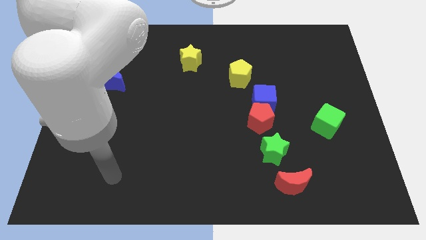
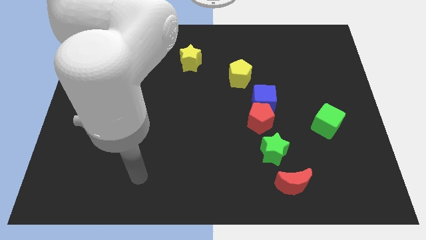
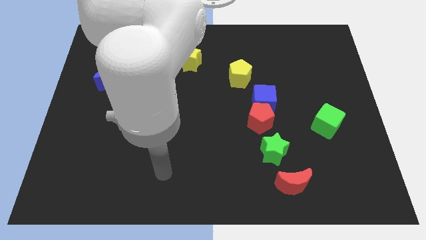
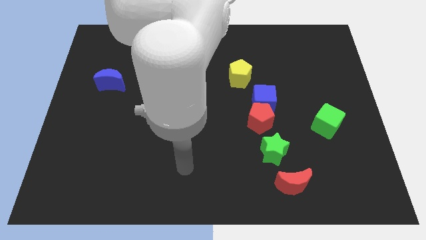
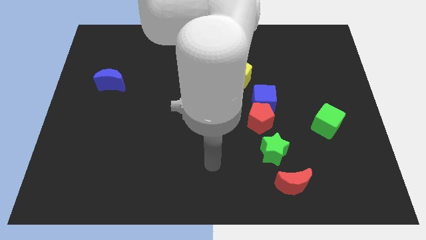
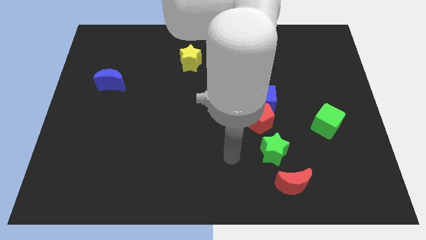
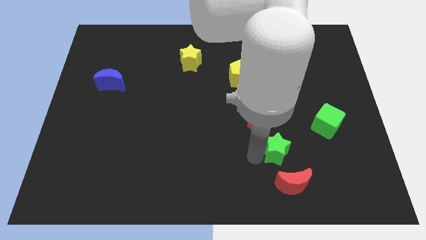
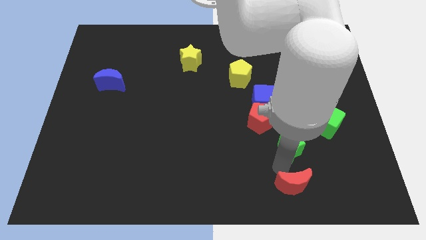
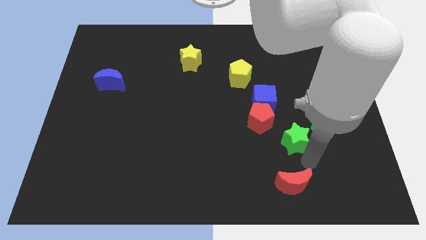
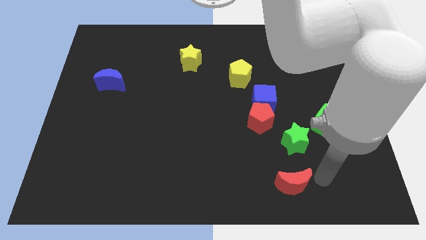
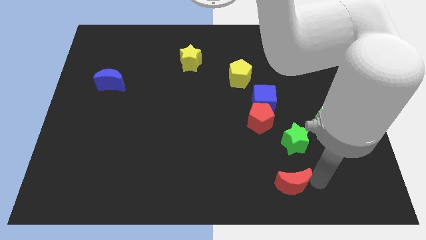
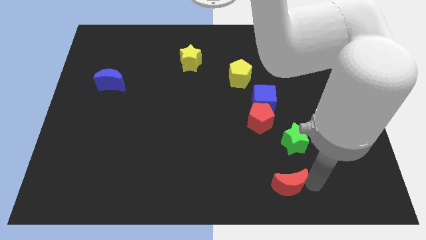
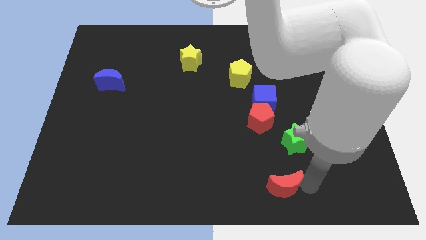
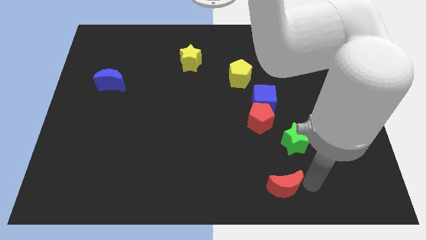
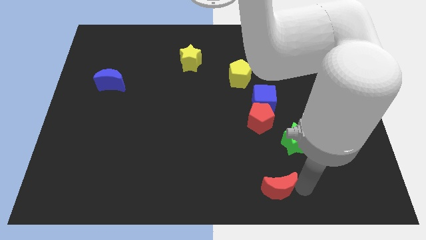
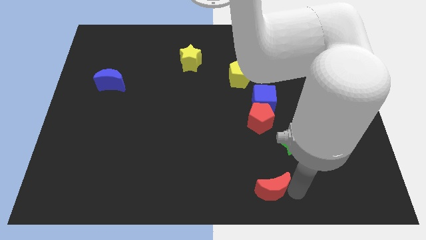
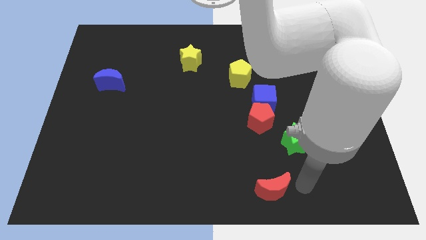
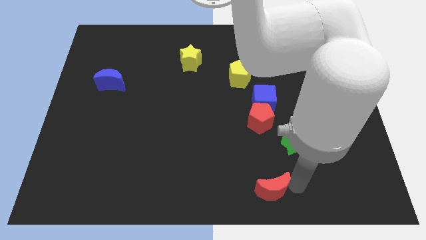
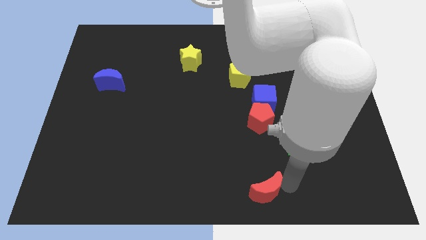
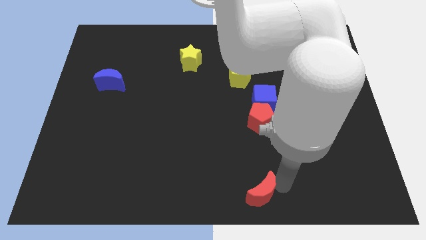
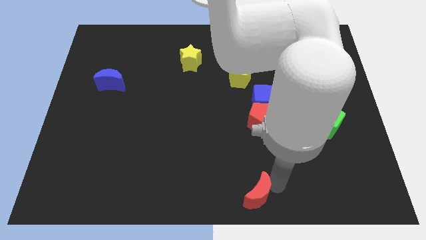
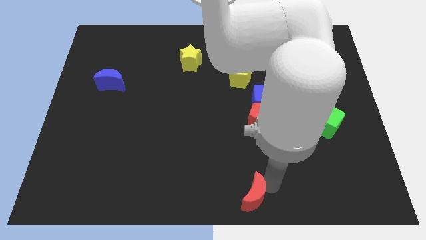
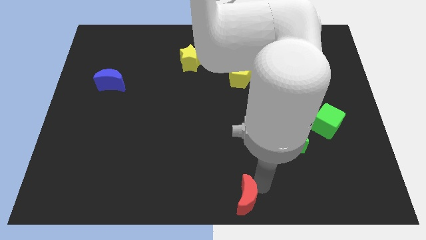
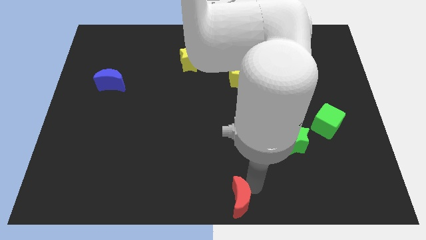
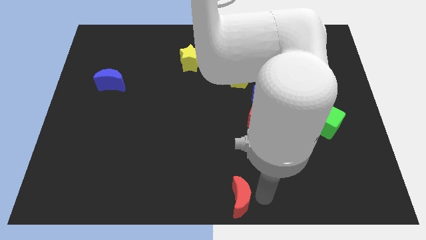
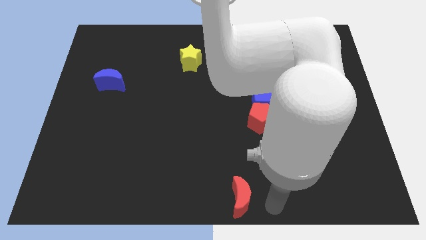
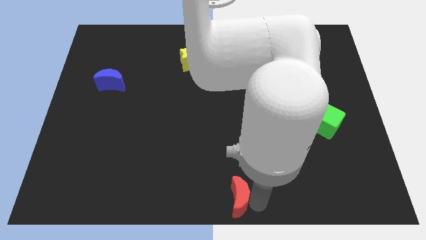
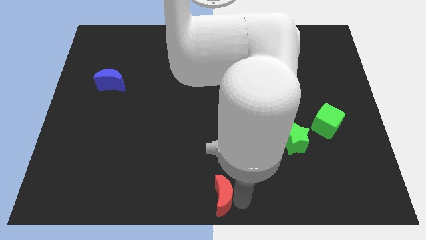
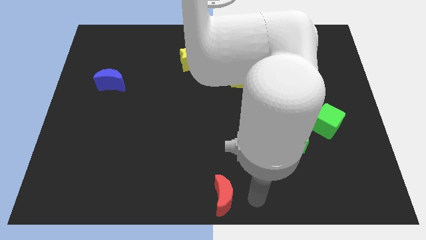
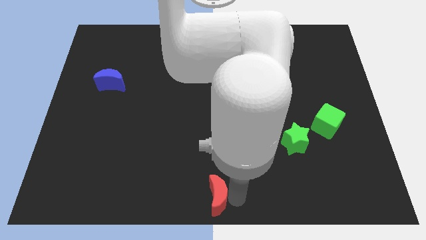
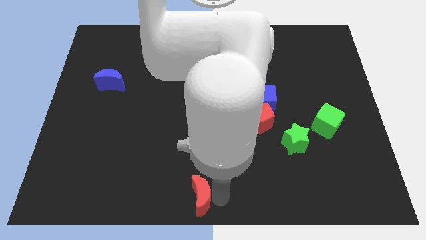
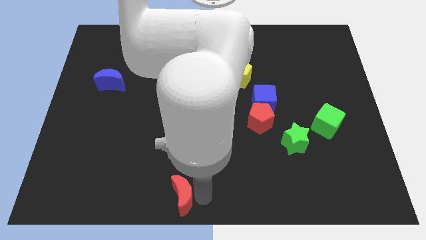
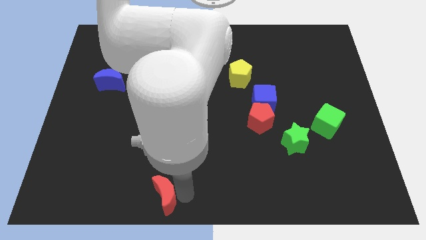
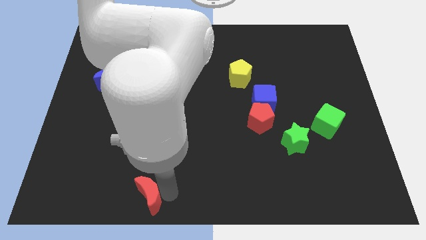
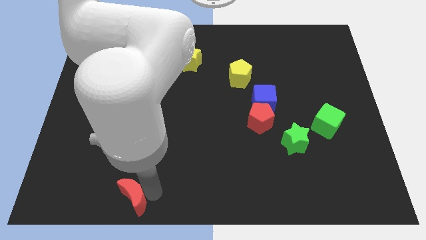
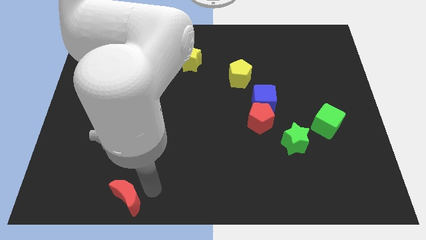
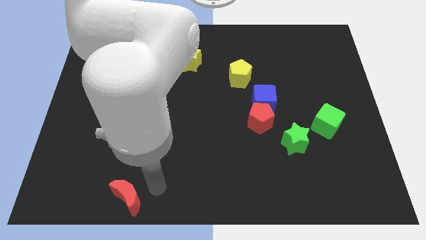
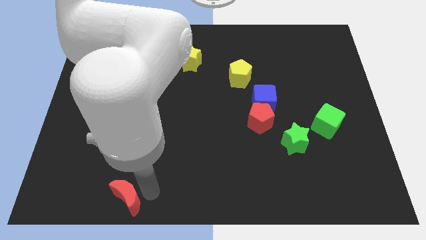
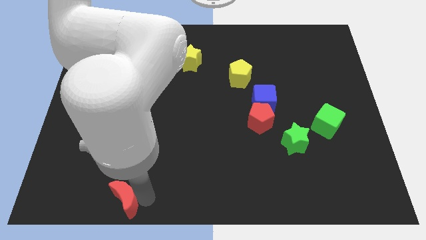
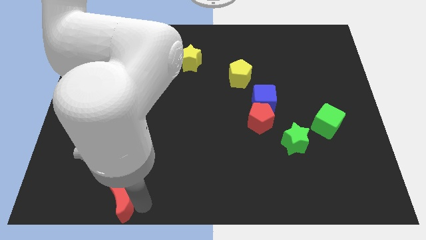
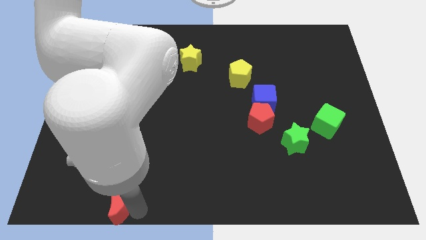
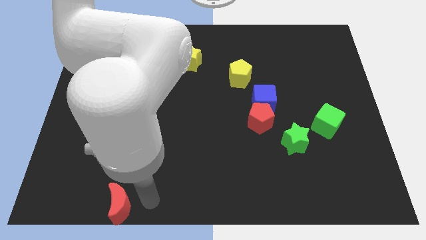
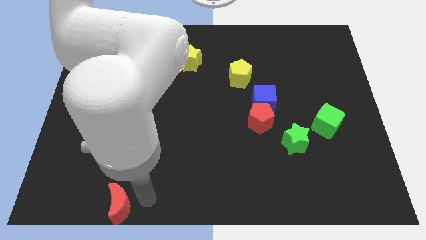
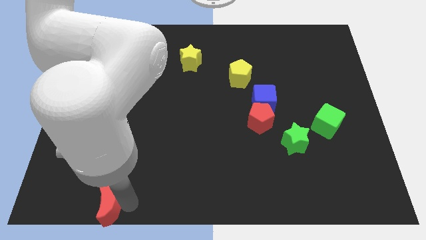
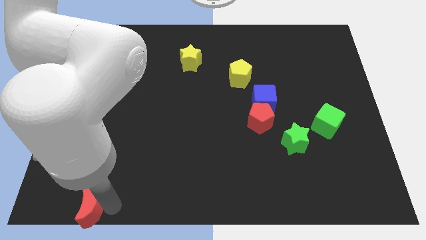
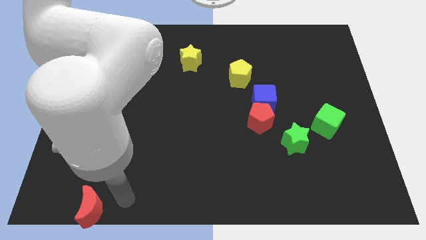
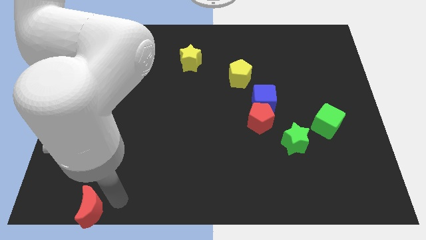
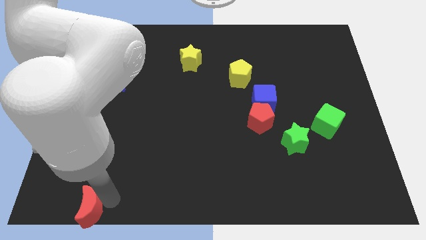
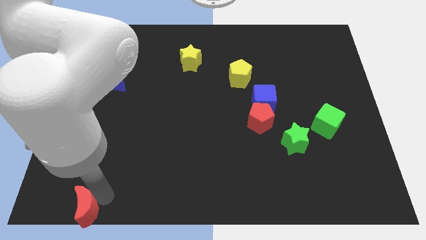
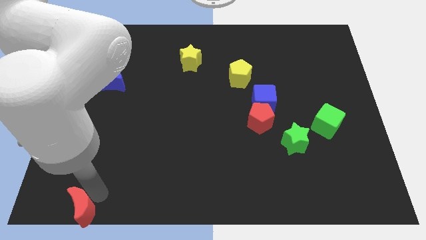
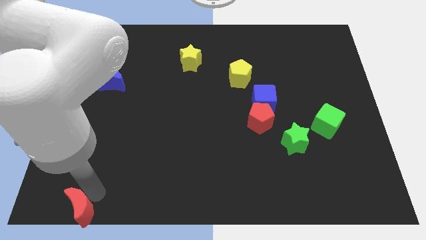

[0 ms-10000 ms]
put the red moon to the lower left corner

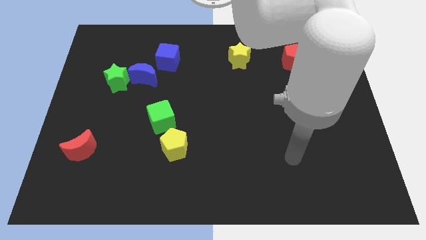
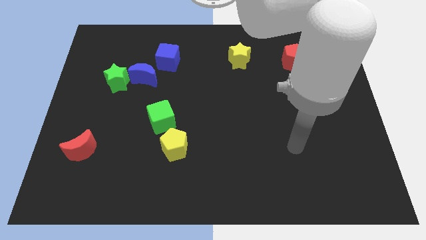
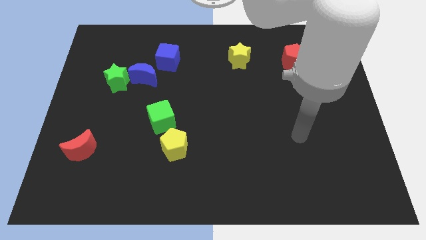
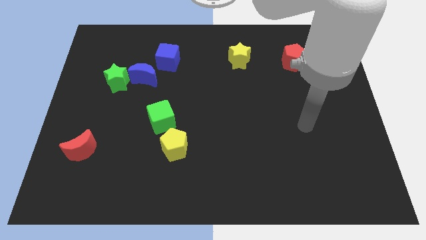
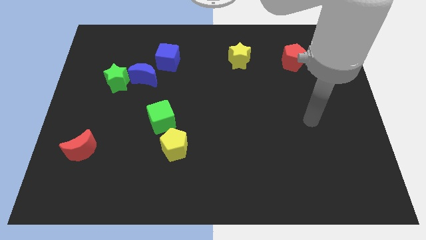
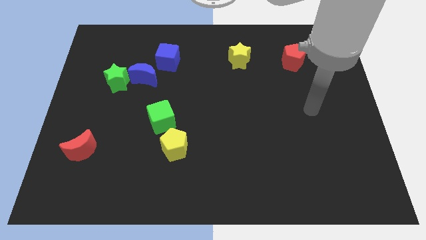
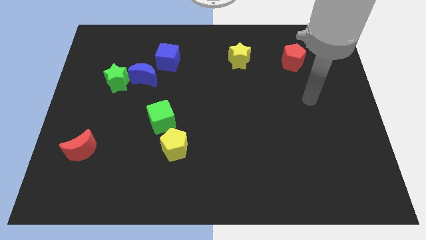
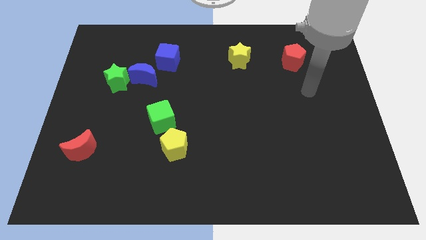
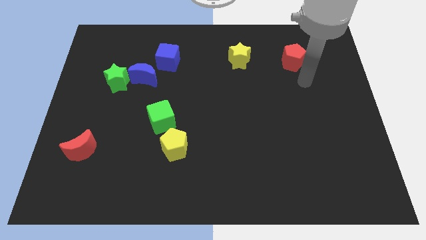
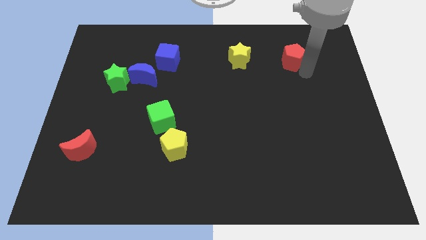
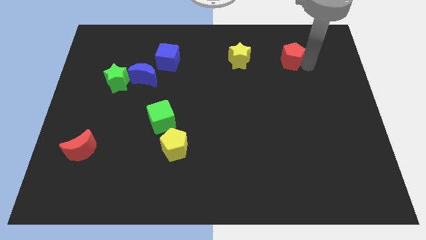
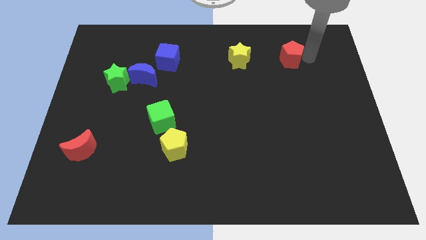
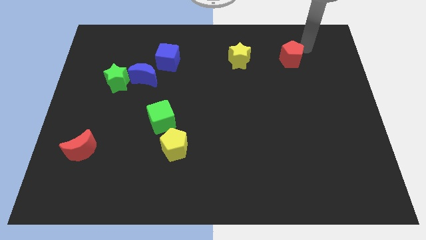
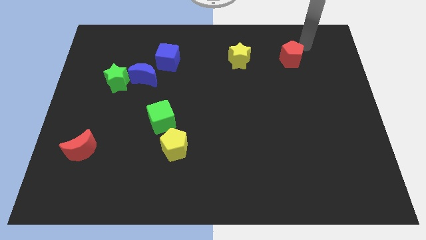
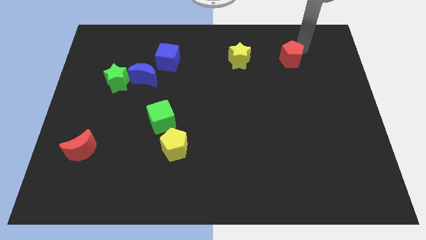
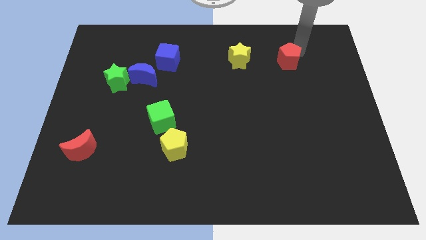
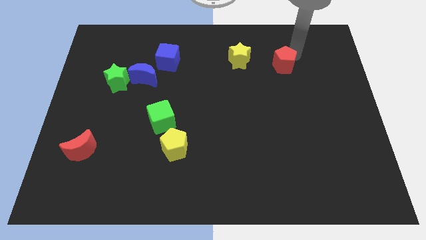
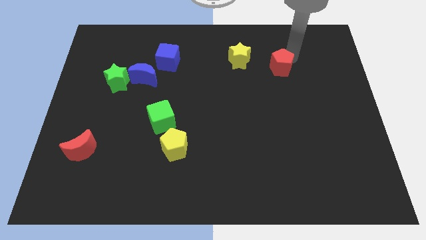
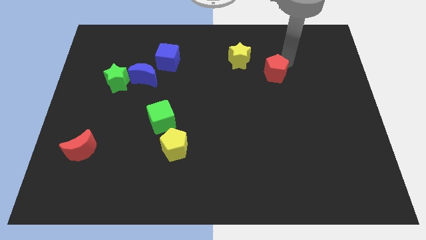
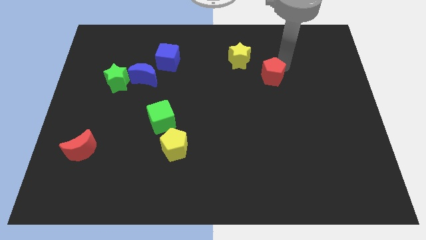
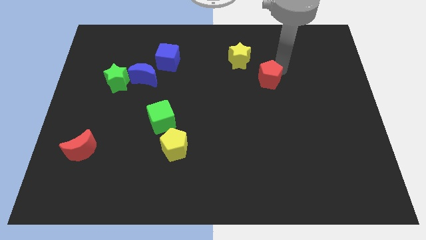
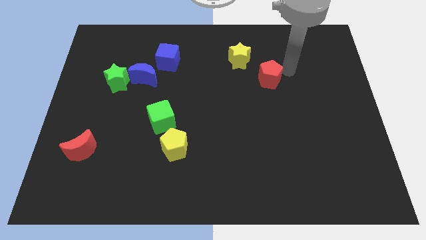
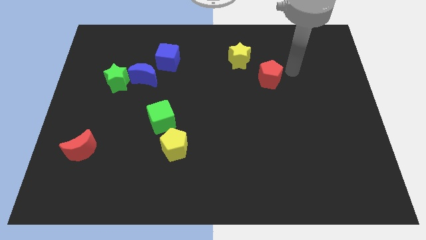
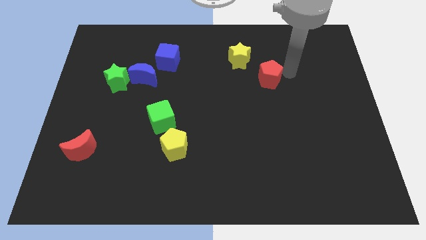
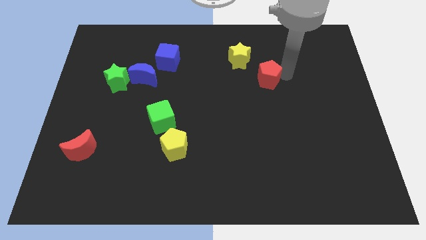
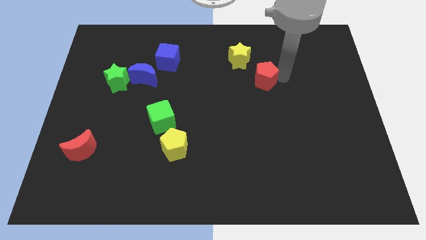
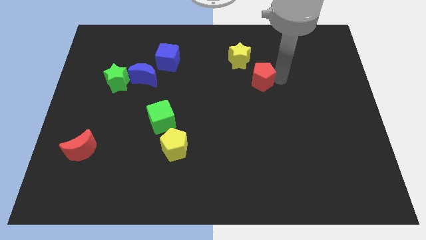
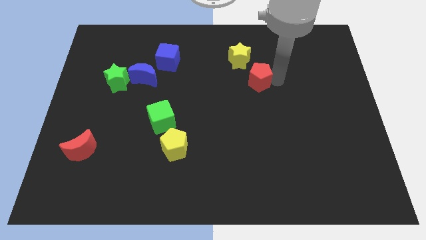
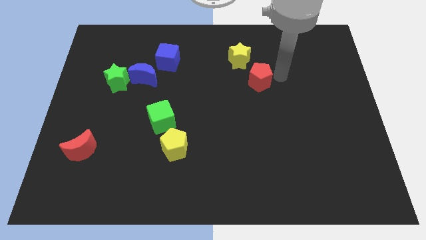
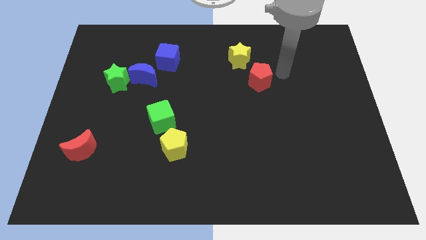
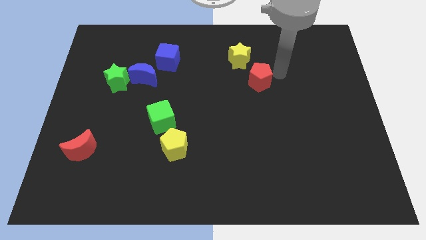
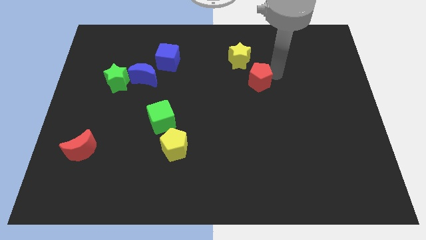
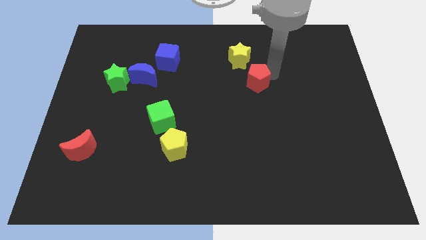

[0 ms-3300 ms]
put the red pentagon to the center
